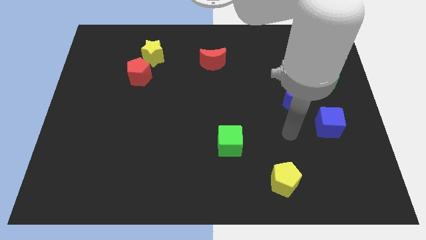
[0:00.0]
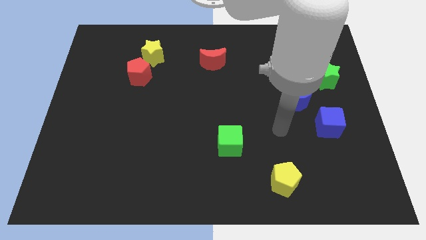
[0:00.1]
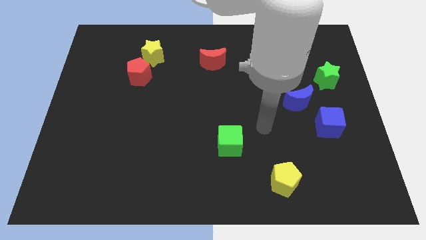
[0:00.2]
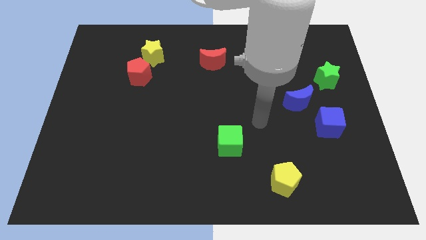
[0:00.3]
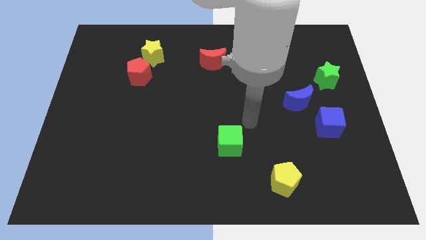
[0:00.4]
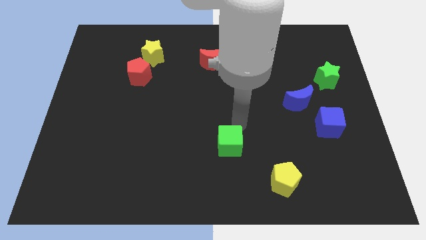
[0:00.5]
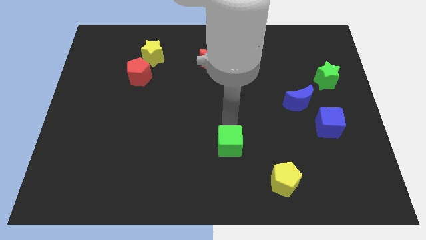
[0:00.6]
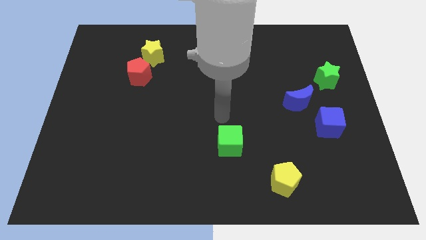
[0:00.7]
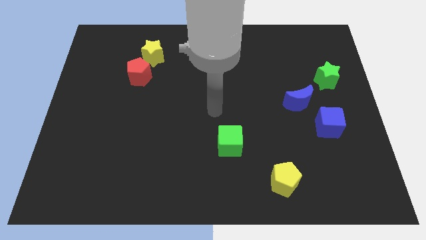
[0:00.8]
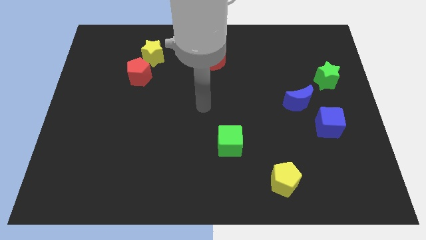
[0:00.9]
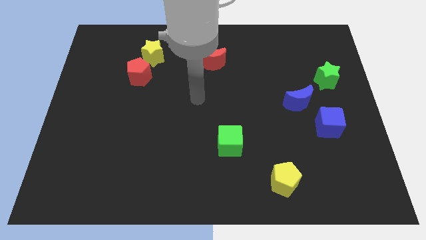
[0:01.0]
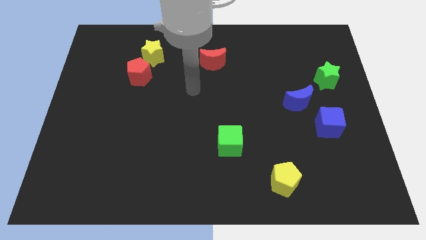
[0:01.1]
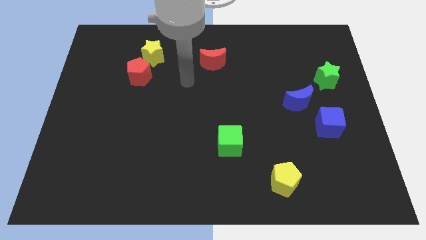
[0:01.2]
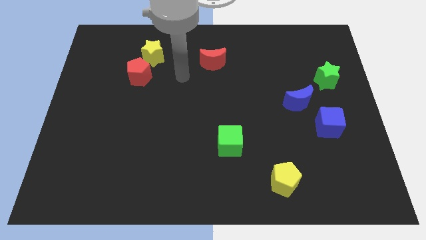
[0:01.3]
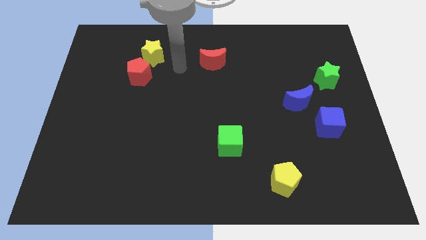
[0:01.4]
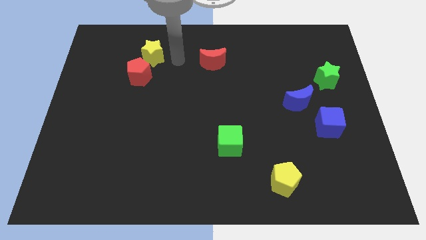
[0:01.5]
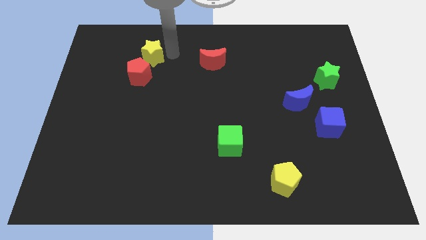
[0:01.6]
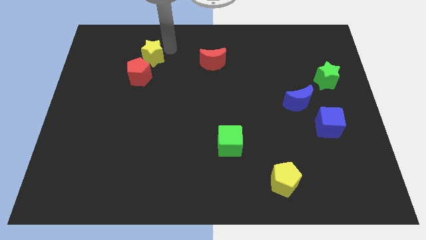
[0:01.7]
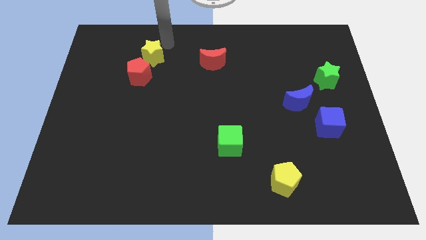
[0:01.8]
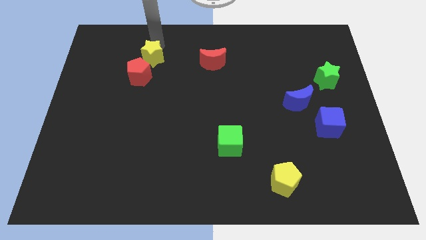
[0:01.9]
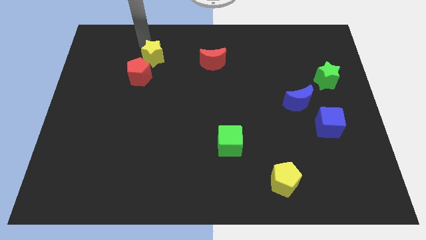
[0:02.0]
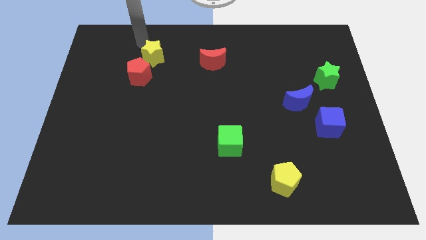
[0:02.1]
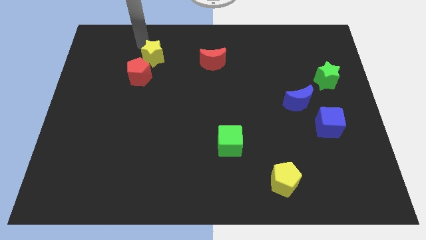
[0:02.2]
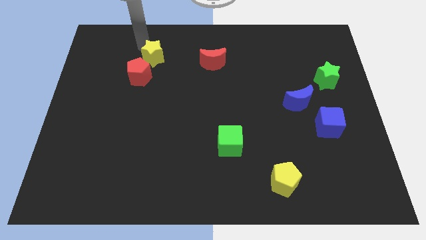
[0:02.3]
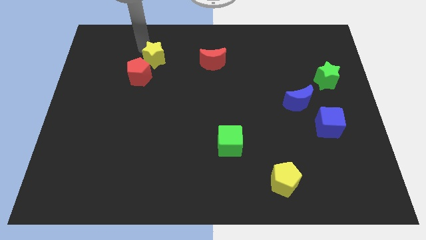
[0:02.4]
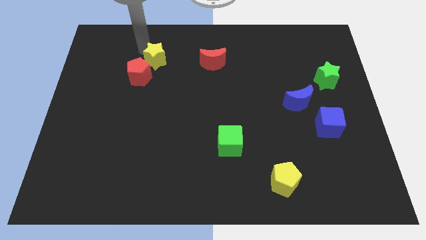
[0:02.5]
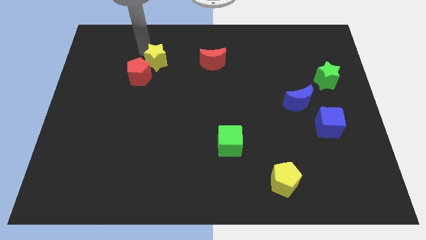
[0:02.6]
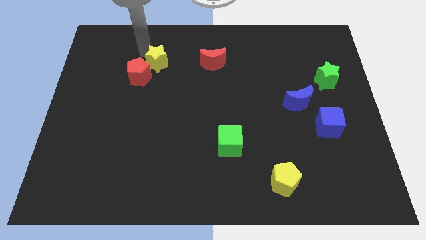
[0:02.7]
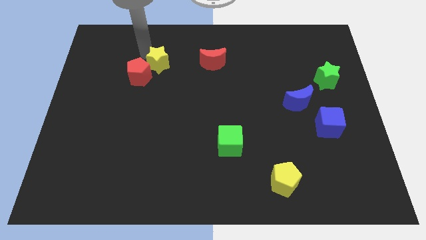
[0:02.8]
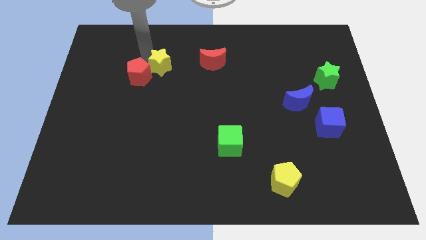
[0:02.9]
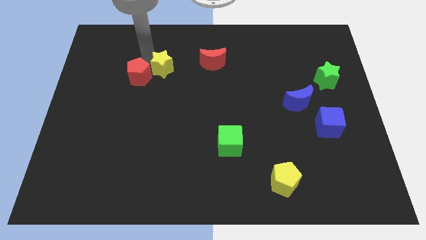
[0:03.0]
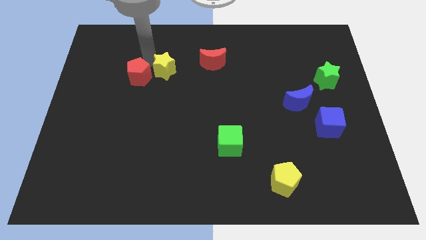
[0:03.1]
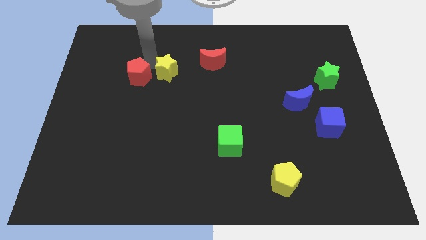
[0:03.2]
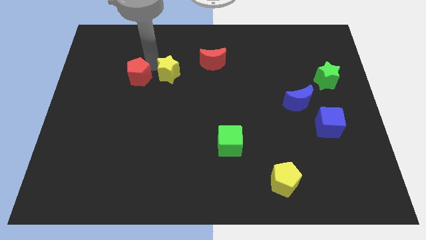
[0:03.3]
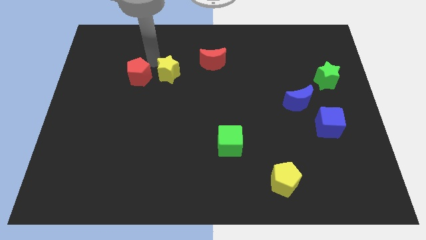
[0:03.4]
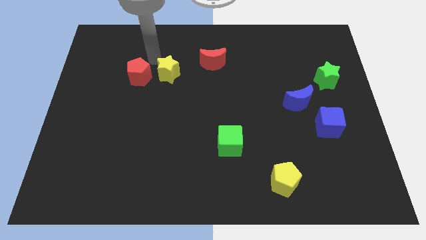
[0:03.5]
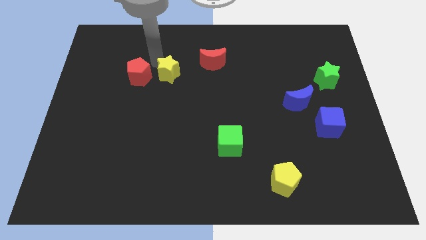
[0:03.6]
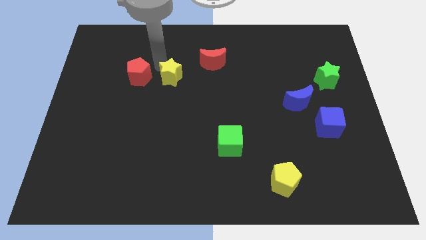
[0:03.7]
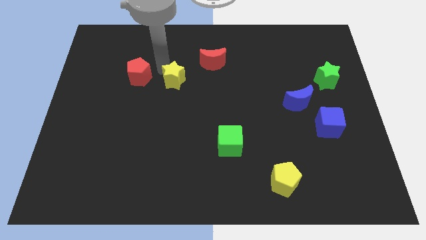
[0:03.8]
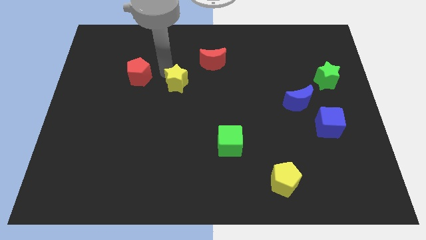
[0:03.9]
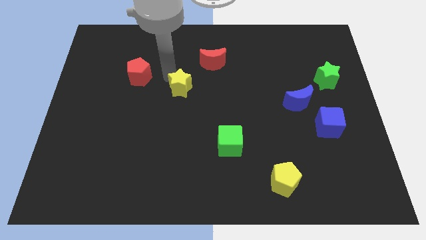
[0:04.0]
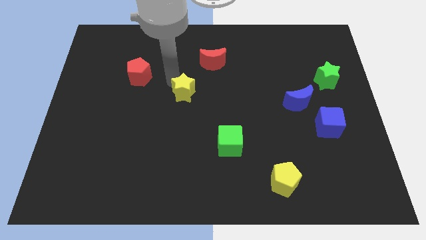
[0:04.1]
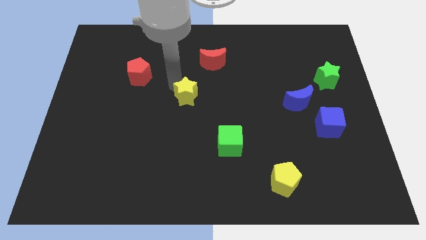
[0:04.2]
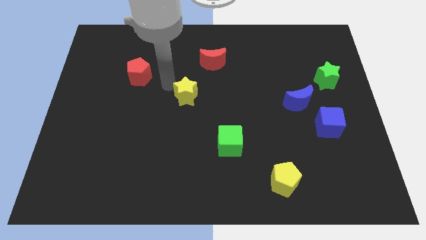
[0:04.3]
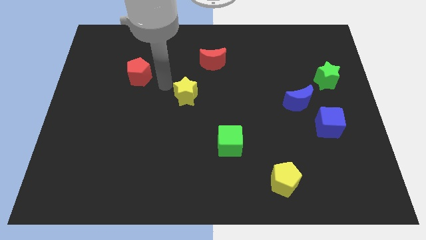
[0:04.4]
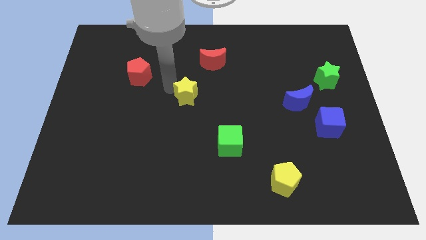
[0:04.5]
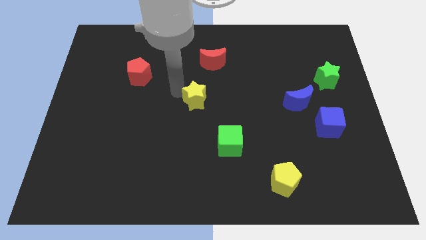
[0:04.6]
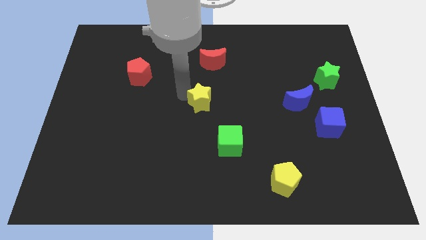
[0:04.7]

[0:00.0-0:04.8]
push the yellow star downwards and to the right diagonally

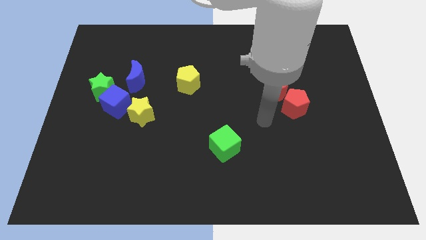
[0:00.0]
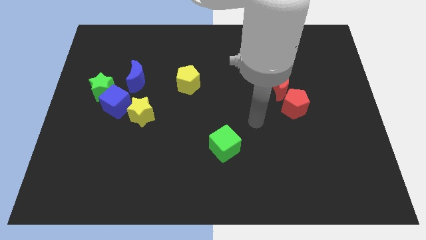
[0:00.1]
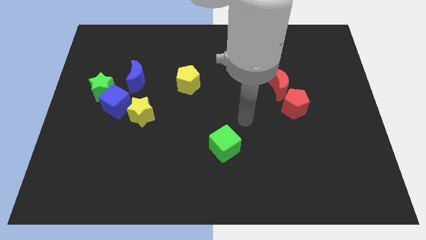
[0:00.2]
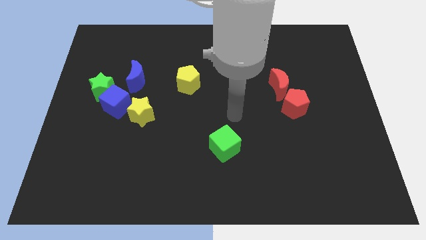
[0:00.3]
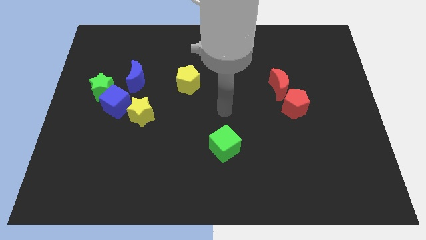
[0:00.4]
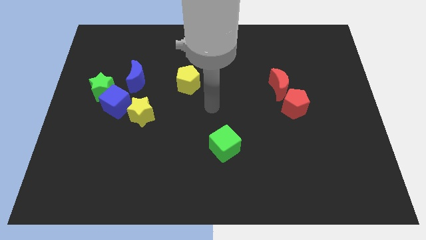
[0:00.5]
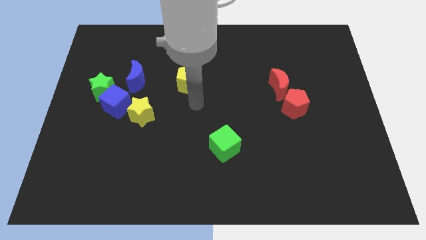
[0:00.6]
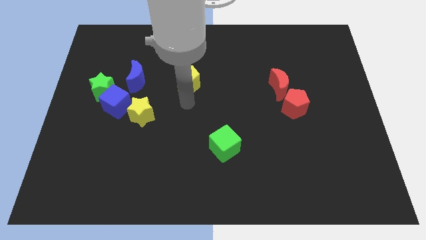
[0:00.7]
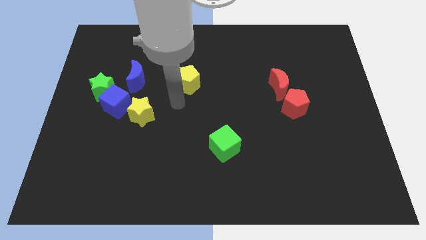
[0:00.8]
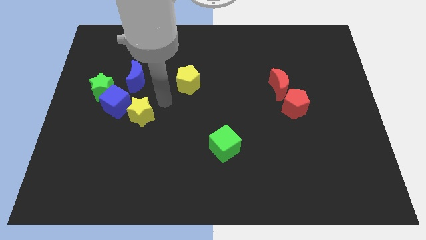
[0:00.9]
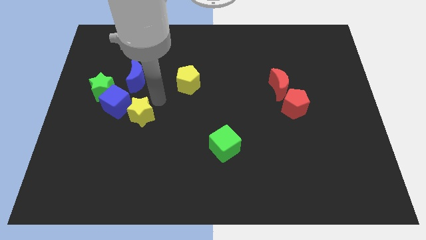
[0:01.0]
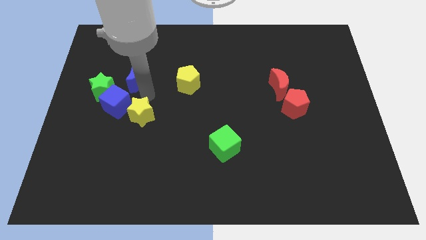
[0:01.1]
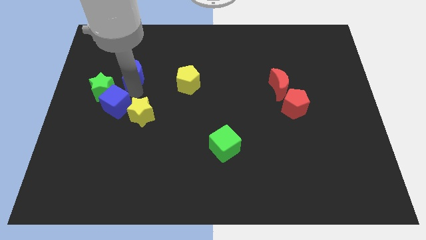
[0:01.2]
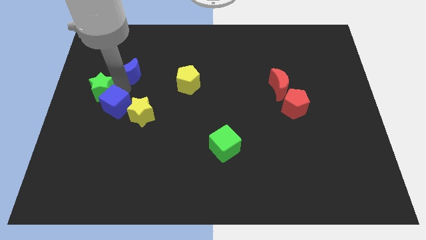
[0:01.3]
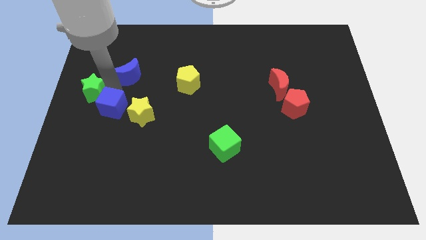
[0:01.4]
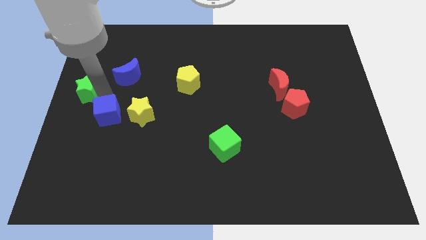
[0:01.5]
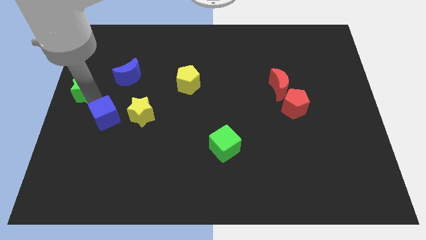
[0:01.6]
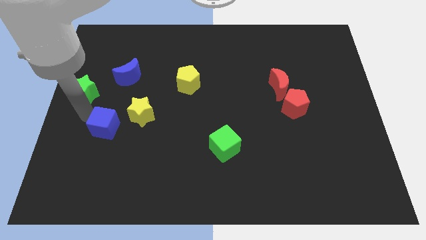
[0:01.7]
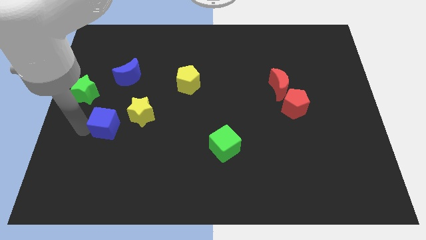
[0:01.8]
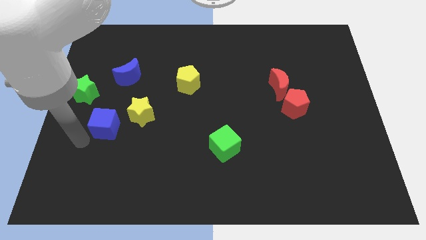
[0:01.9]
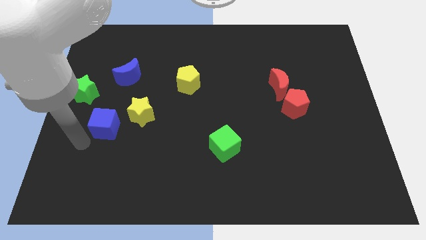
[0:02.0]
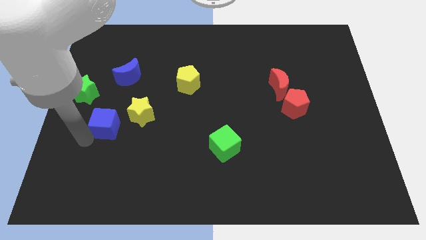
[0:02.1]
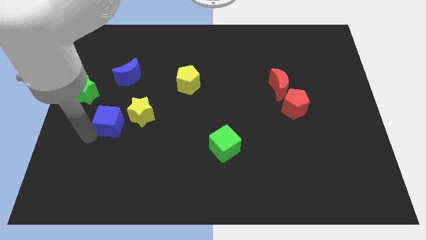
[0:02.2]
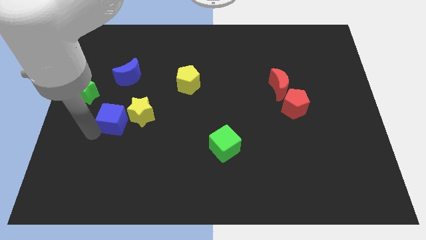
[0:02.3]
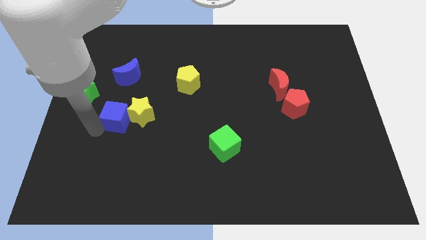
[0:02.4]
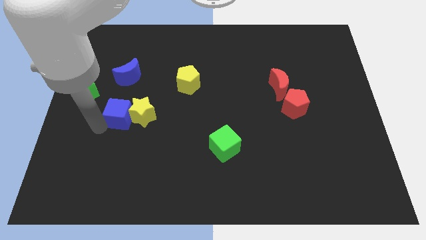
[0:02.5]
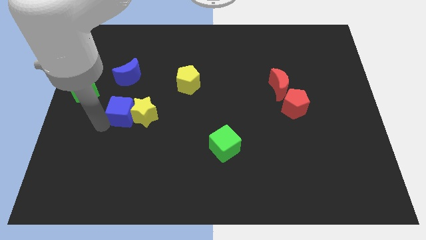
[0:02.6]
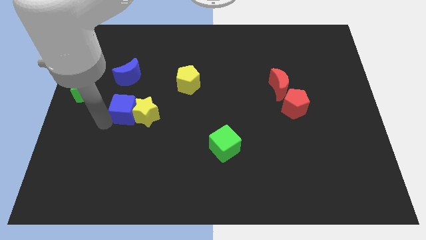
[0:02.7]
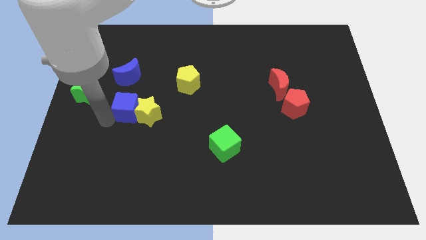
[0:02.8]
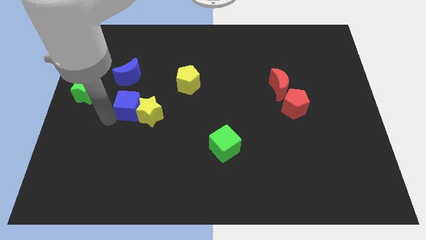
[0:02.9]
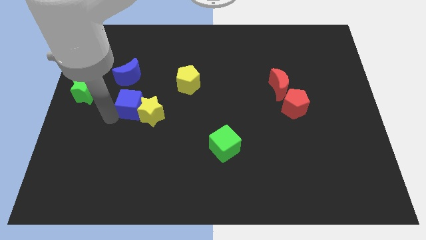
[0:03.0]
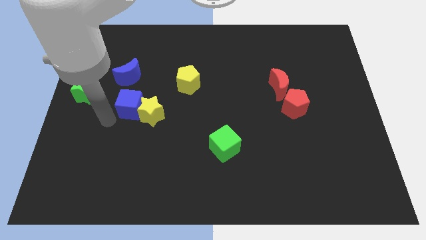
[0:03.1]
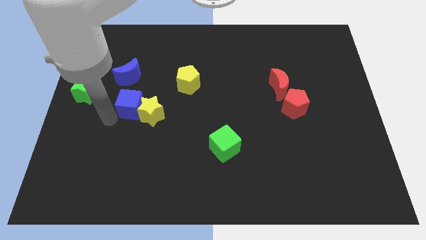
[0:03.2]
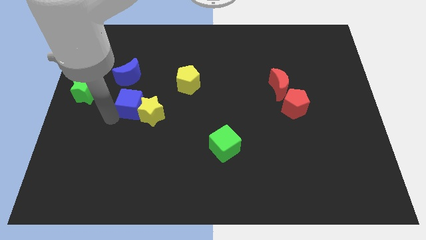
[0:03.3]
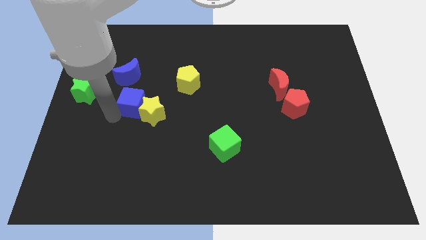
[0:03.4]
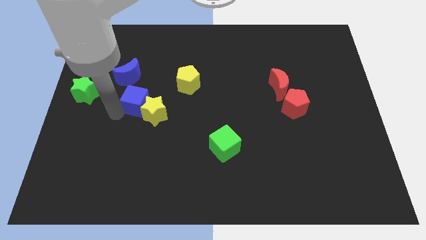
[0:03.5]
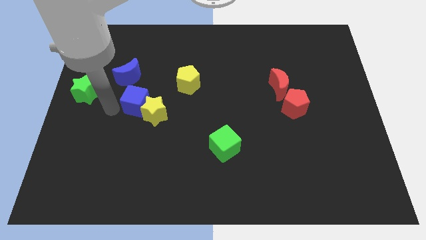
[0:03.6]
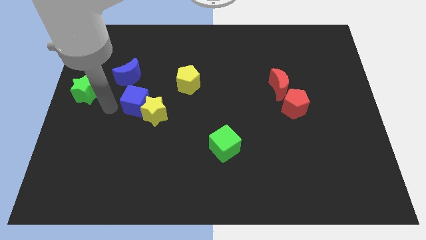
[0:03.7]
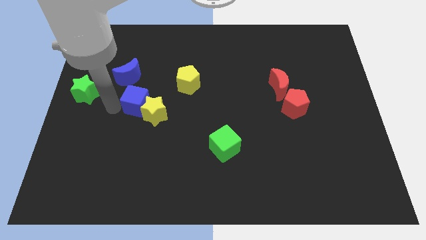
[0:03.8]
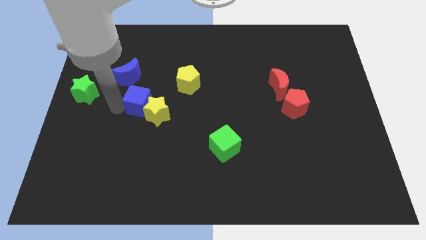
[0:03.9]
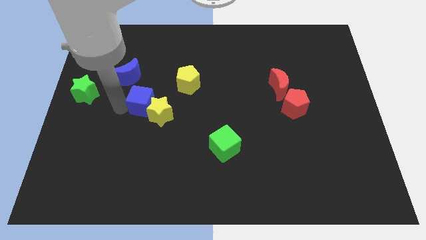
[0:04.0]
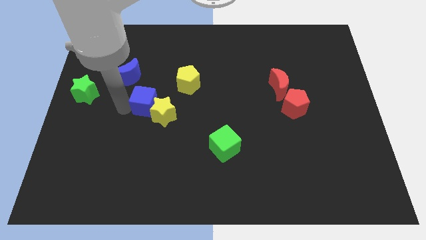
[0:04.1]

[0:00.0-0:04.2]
slightly push the blue cube to the right
